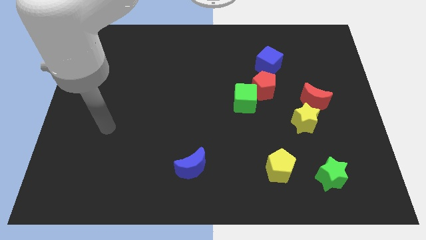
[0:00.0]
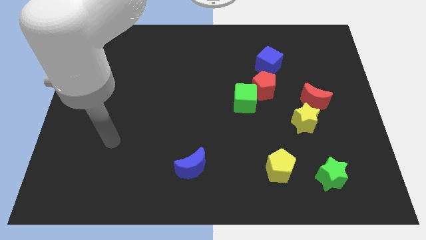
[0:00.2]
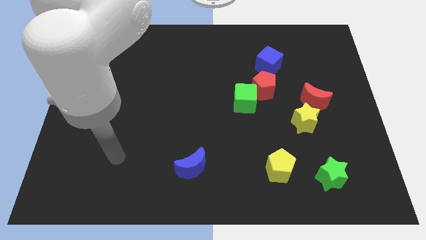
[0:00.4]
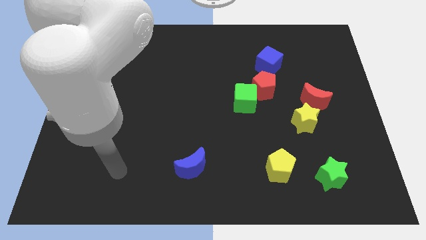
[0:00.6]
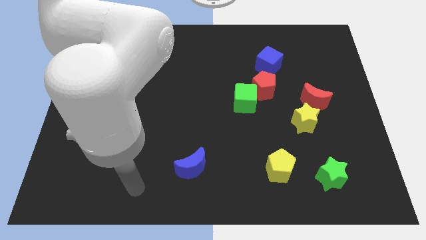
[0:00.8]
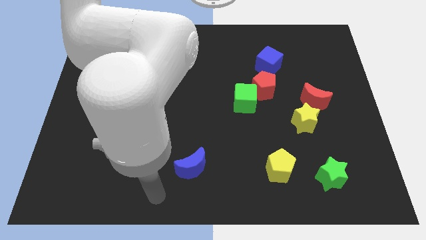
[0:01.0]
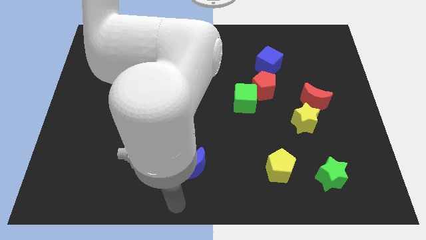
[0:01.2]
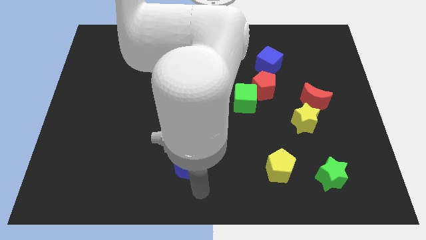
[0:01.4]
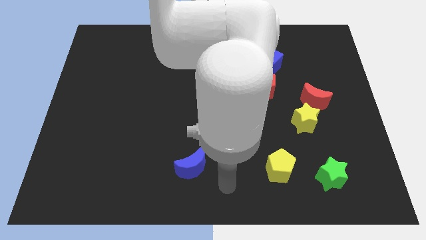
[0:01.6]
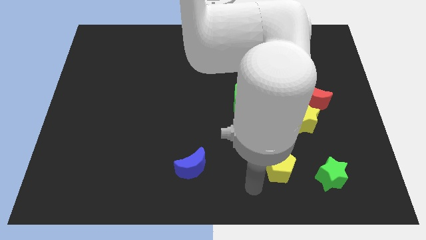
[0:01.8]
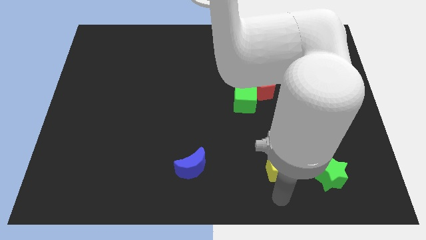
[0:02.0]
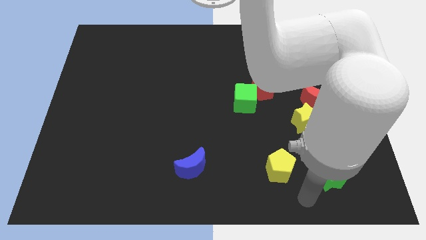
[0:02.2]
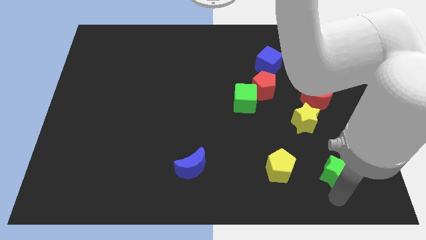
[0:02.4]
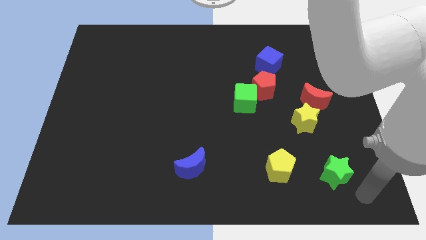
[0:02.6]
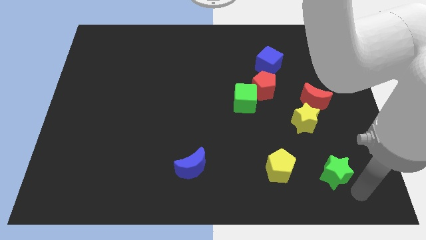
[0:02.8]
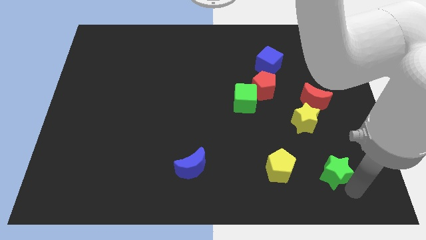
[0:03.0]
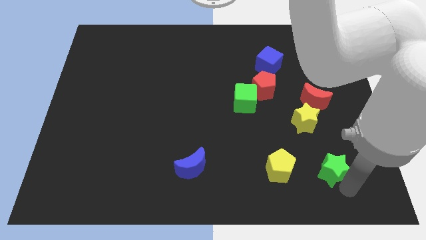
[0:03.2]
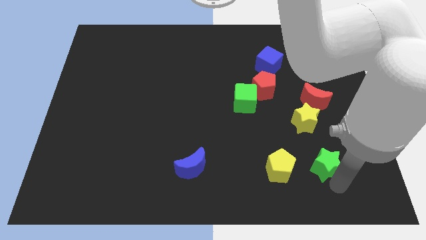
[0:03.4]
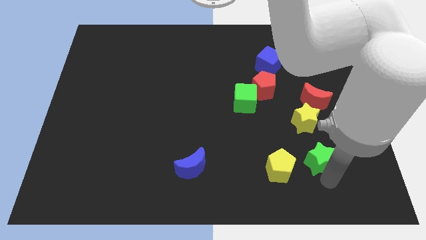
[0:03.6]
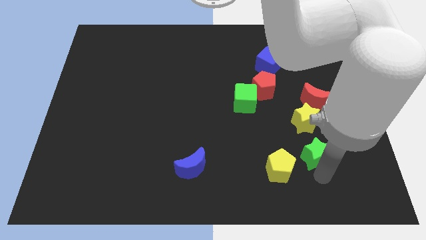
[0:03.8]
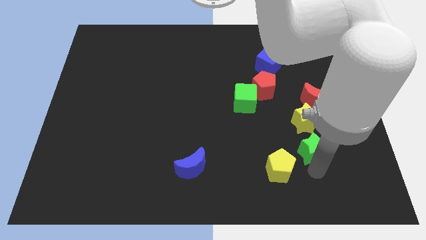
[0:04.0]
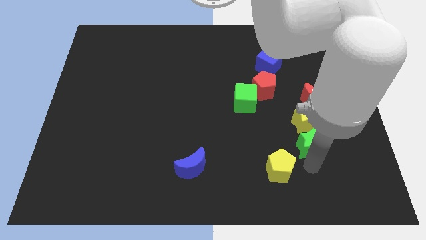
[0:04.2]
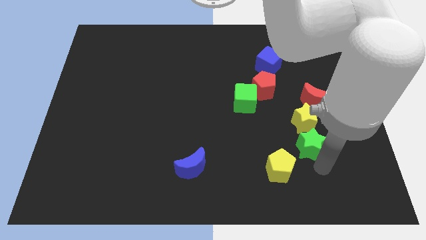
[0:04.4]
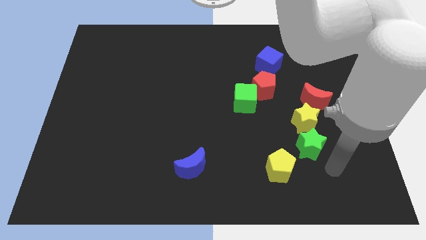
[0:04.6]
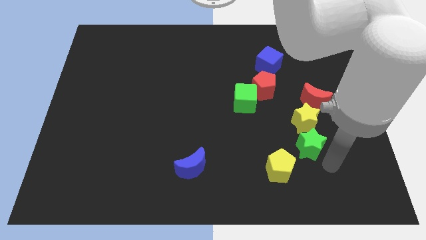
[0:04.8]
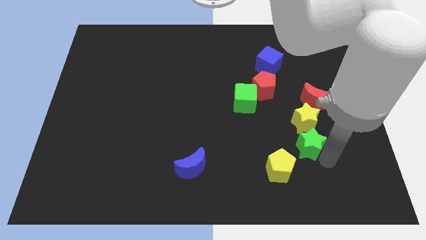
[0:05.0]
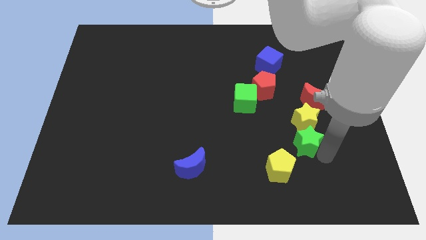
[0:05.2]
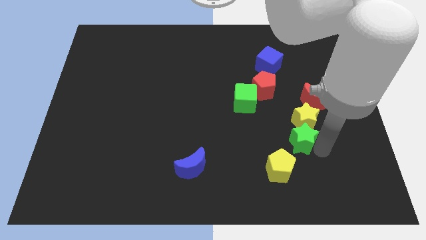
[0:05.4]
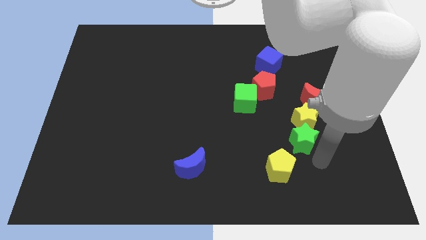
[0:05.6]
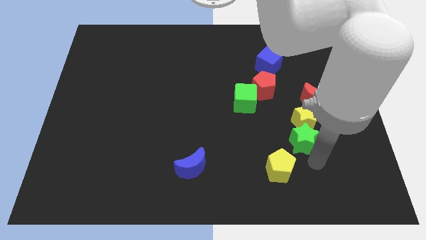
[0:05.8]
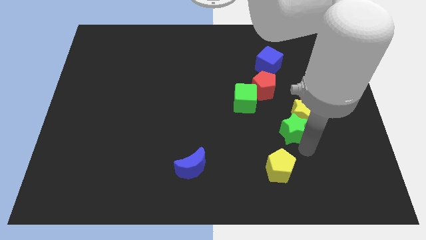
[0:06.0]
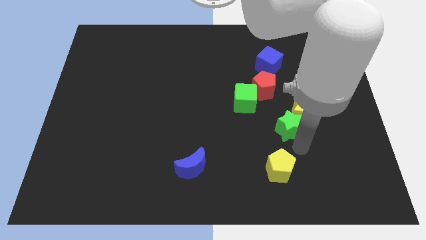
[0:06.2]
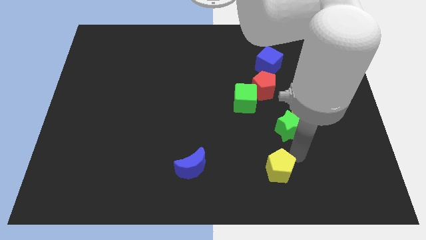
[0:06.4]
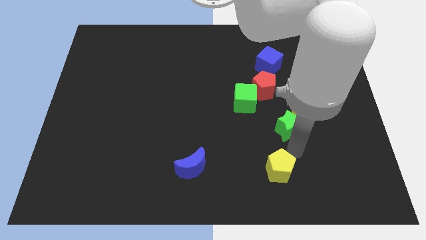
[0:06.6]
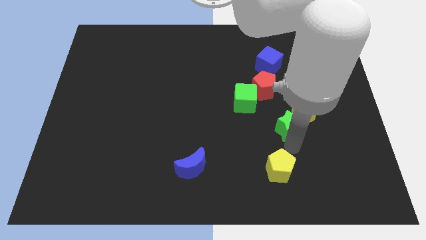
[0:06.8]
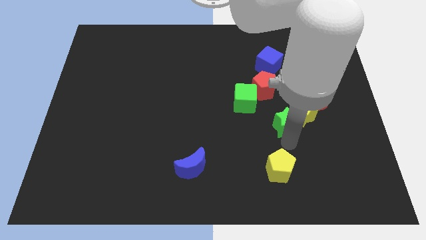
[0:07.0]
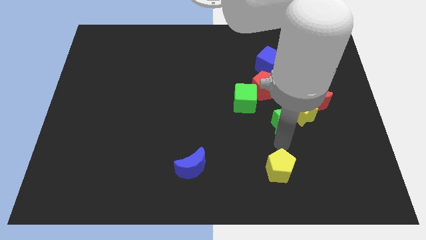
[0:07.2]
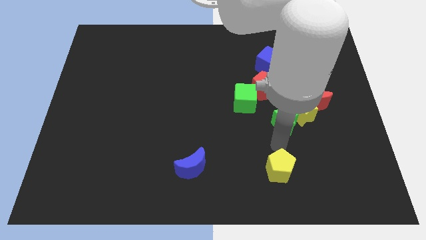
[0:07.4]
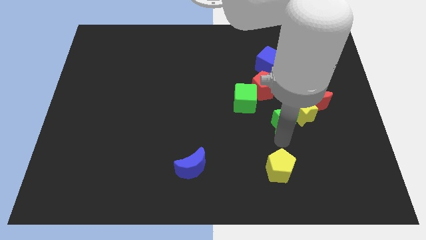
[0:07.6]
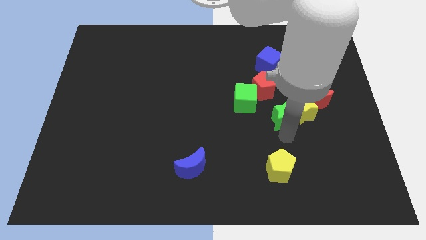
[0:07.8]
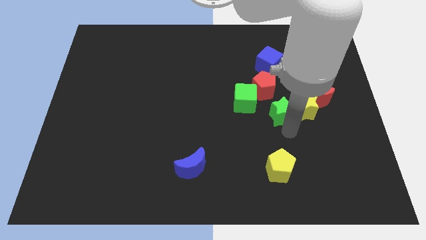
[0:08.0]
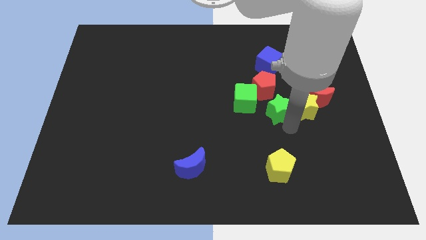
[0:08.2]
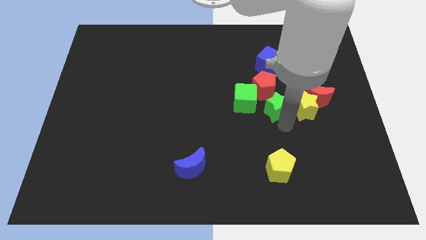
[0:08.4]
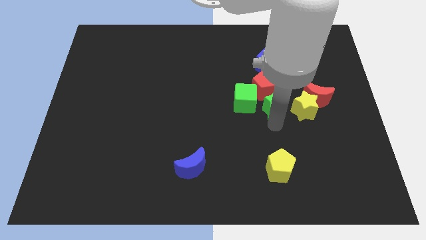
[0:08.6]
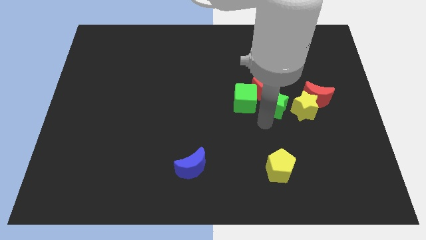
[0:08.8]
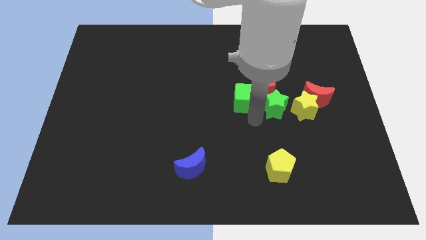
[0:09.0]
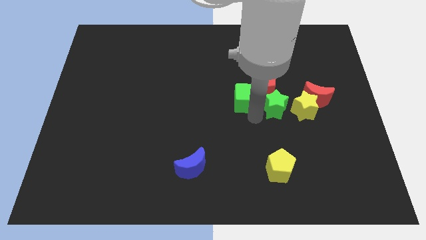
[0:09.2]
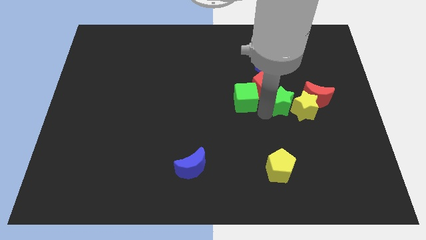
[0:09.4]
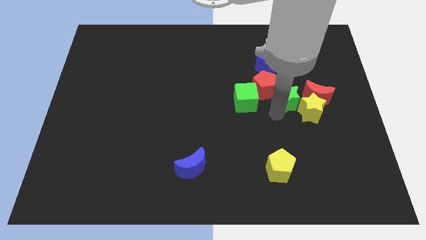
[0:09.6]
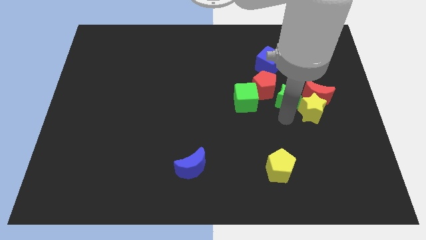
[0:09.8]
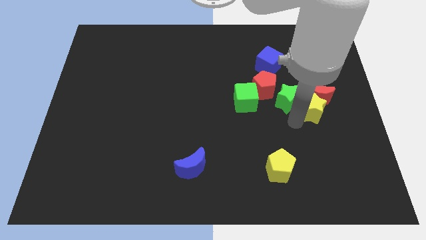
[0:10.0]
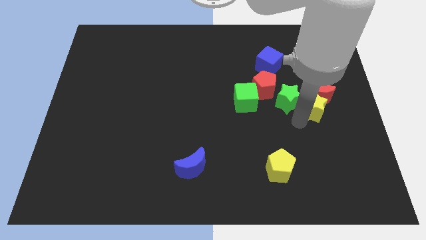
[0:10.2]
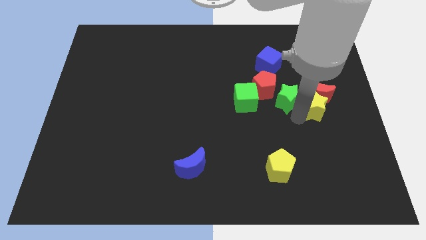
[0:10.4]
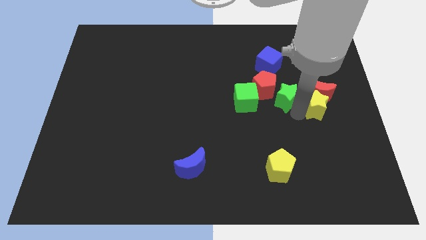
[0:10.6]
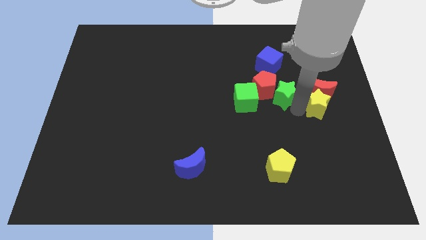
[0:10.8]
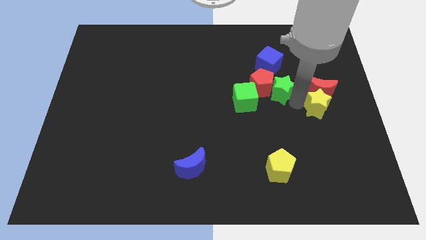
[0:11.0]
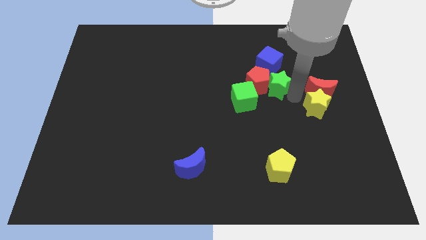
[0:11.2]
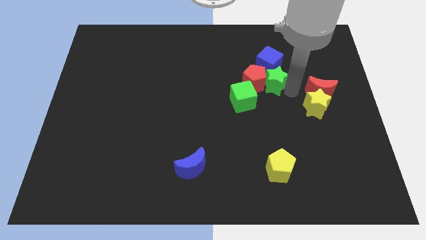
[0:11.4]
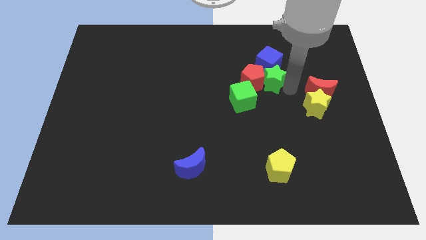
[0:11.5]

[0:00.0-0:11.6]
push the green star next to the blue cube
